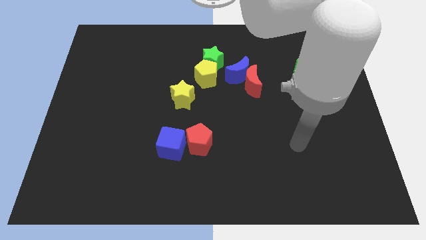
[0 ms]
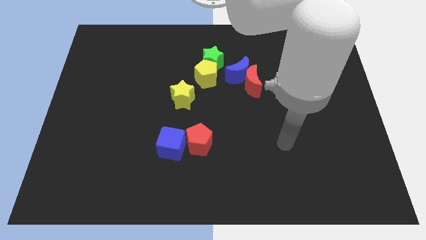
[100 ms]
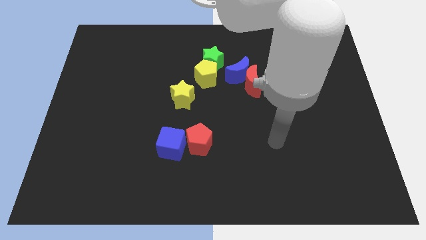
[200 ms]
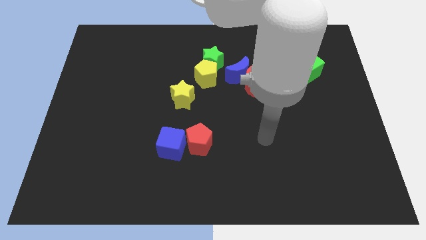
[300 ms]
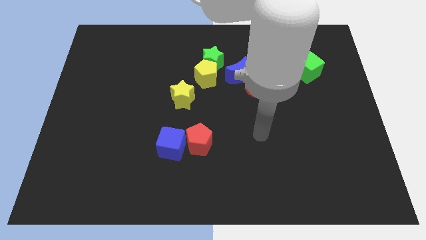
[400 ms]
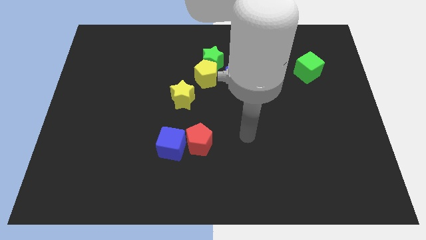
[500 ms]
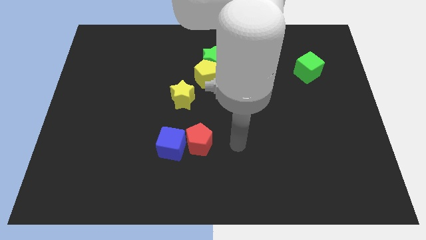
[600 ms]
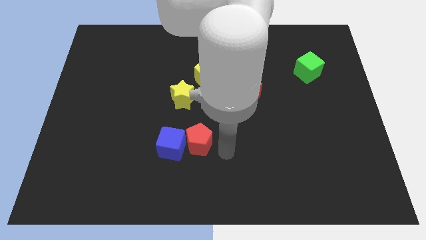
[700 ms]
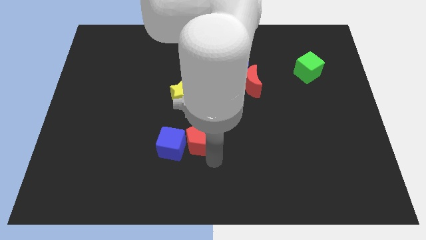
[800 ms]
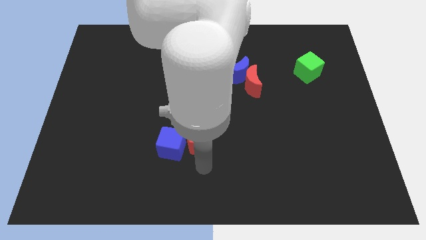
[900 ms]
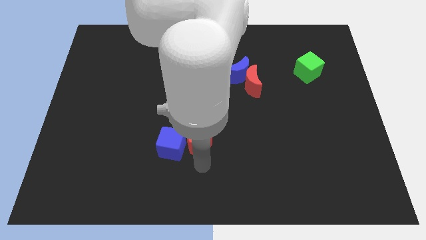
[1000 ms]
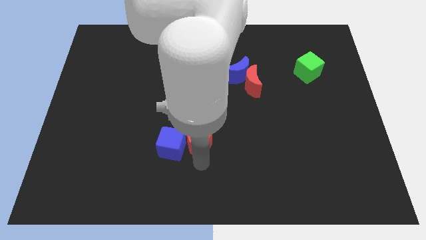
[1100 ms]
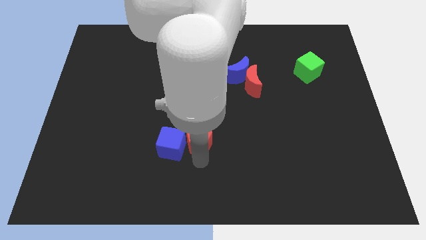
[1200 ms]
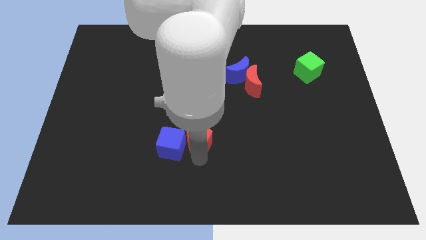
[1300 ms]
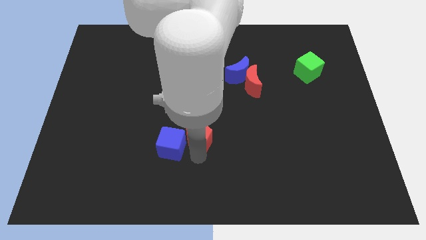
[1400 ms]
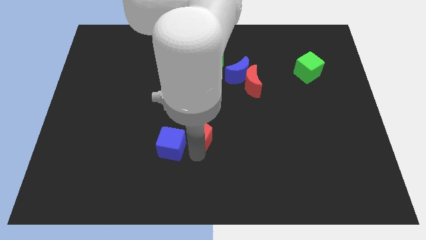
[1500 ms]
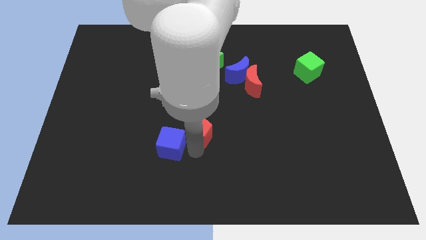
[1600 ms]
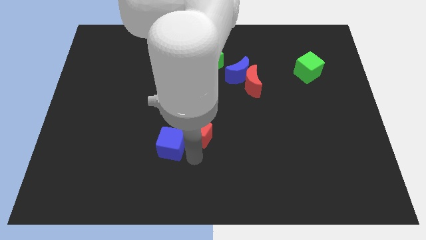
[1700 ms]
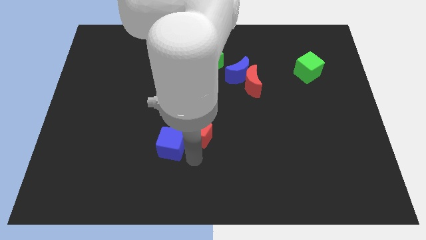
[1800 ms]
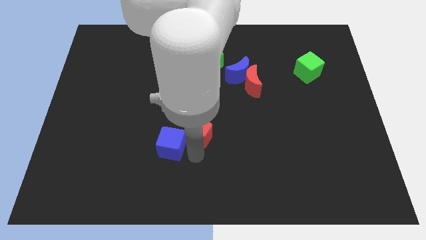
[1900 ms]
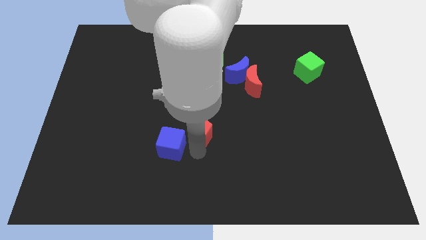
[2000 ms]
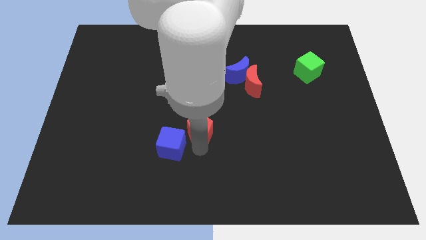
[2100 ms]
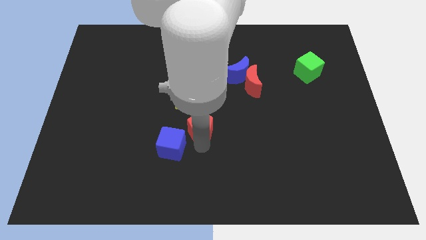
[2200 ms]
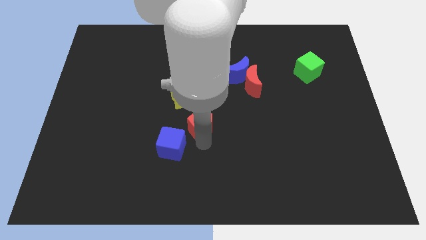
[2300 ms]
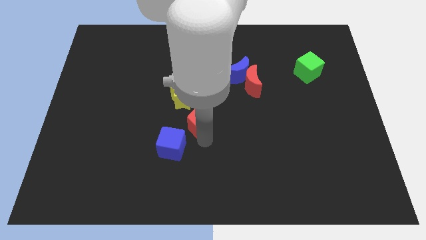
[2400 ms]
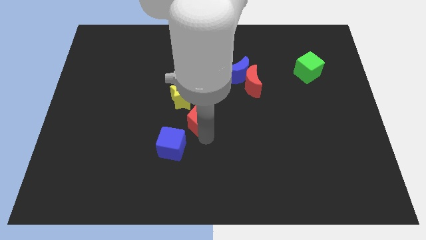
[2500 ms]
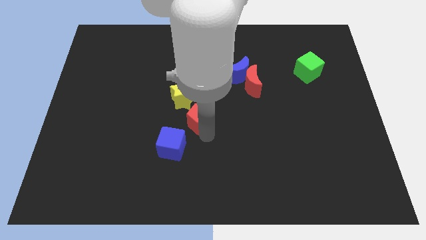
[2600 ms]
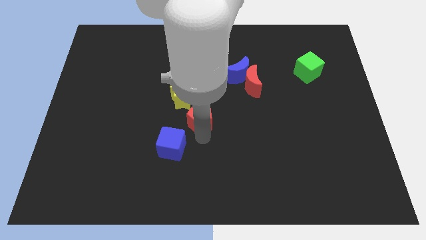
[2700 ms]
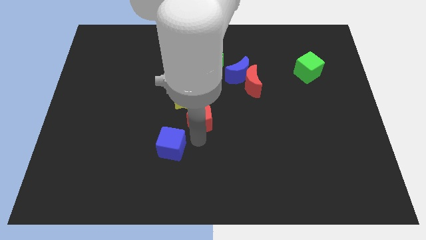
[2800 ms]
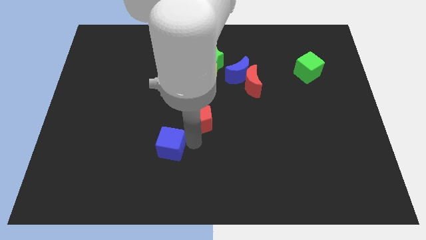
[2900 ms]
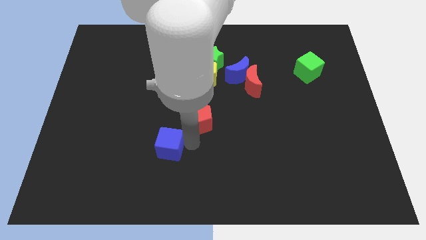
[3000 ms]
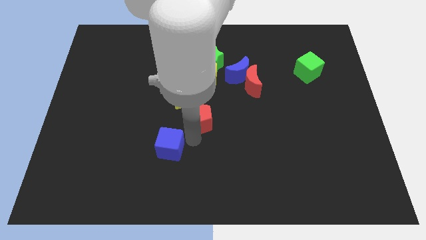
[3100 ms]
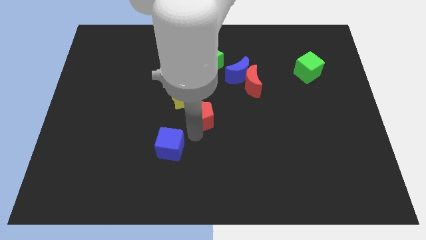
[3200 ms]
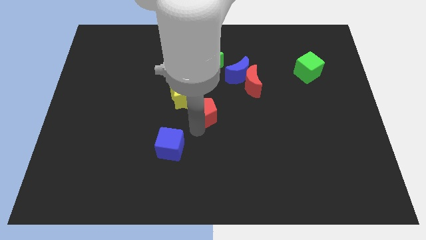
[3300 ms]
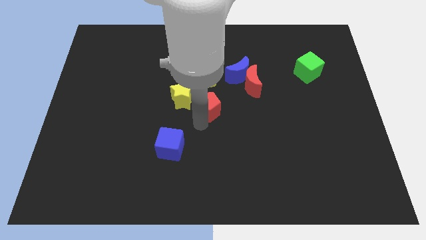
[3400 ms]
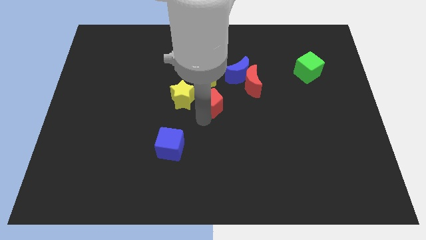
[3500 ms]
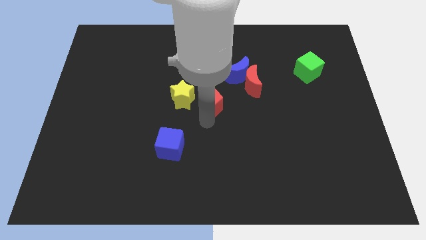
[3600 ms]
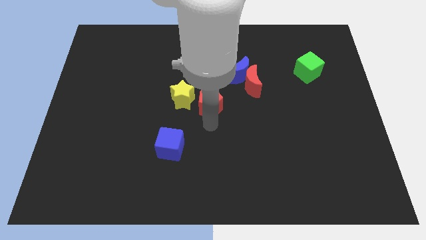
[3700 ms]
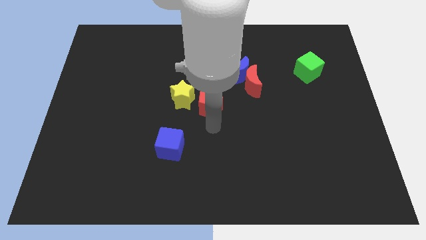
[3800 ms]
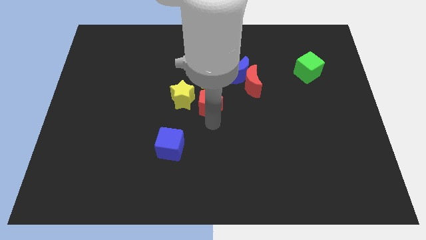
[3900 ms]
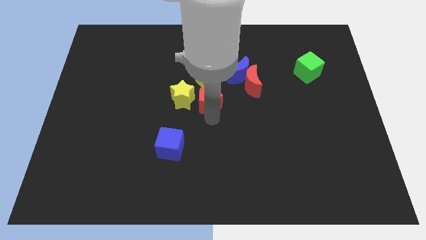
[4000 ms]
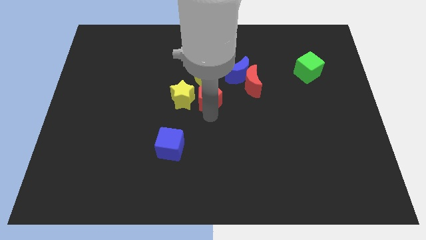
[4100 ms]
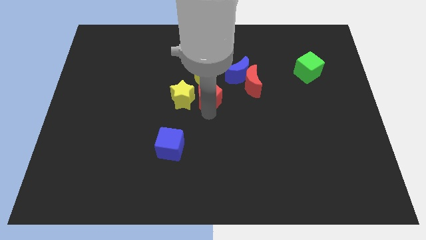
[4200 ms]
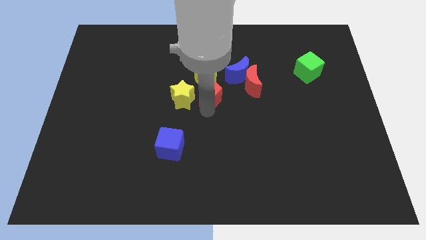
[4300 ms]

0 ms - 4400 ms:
move the red pentagon to the yellow pentagon

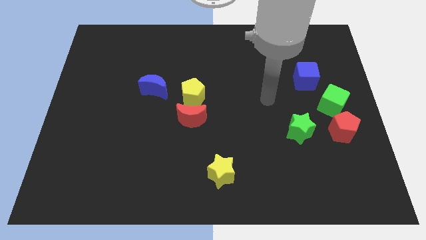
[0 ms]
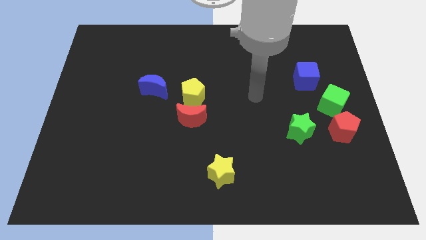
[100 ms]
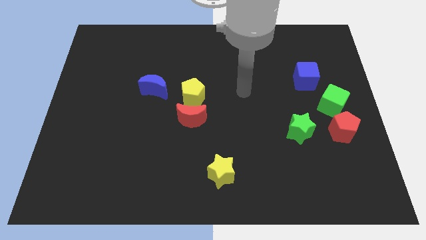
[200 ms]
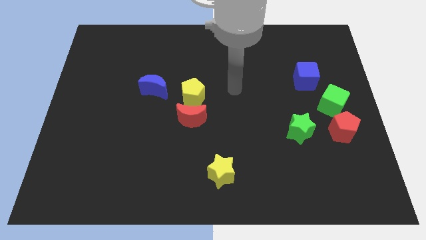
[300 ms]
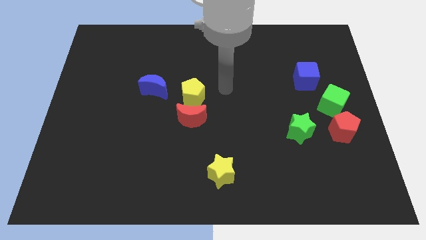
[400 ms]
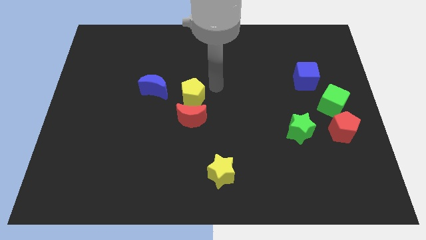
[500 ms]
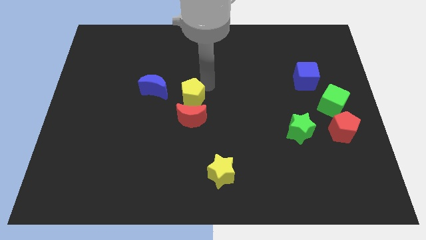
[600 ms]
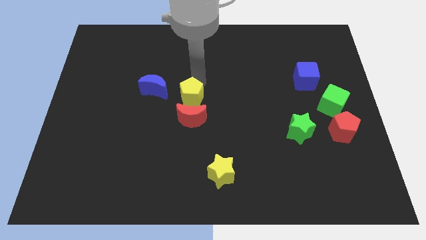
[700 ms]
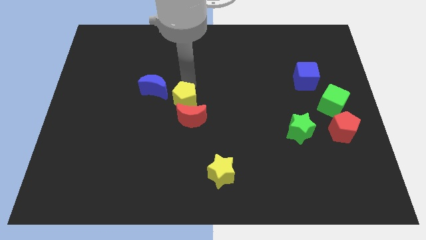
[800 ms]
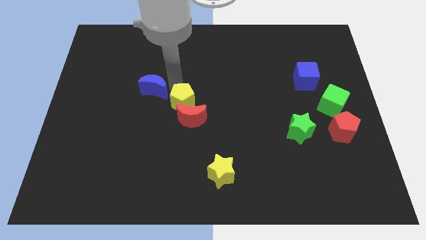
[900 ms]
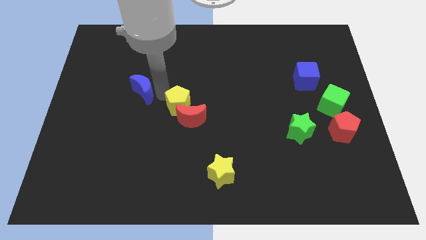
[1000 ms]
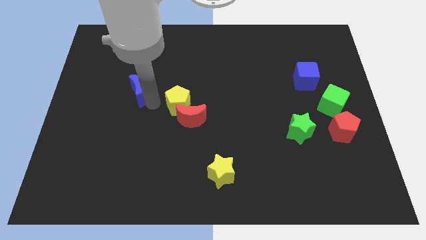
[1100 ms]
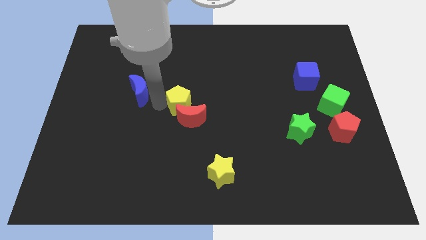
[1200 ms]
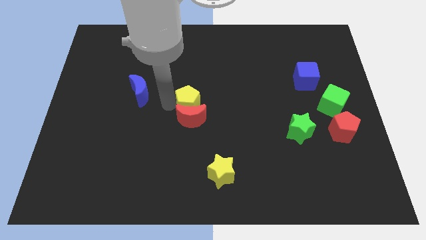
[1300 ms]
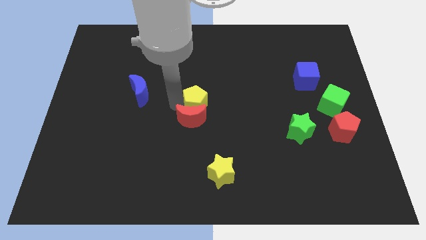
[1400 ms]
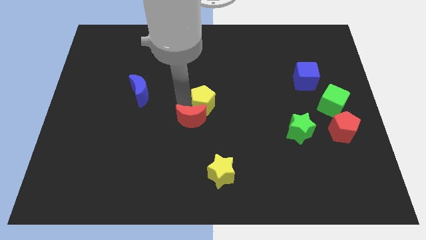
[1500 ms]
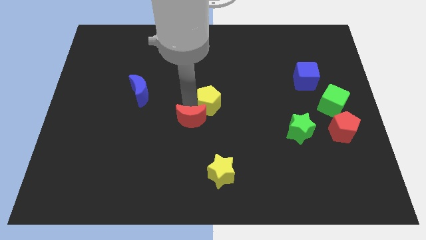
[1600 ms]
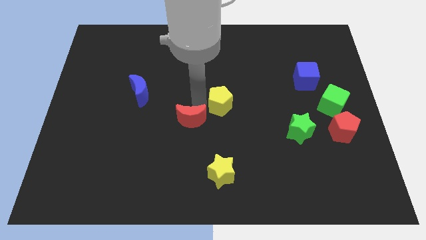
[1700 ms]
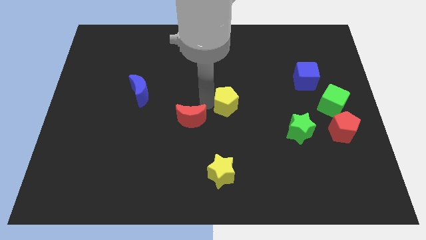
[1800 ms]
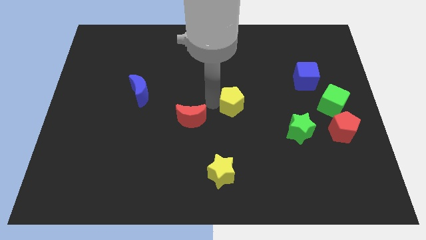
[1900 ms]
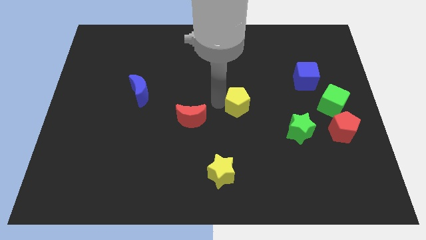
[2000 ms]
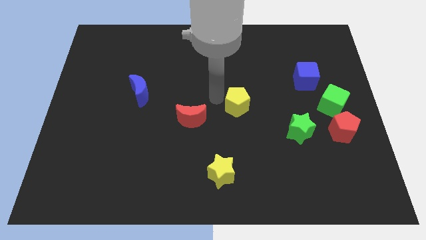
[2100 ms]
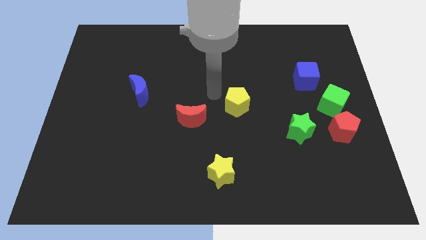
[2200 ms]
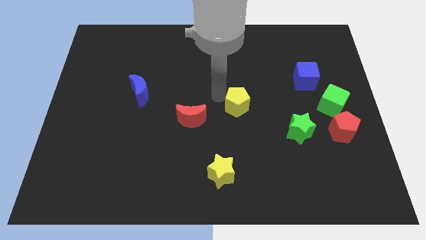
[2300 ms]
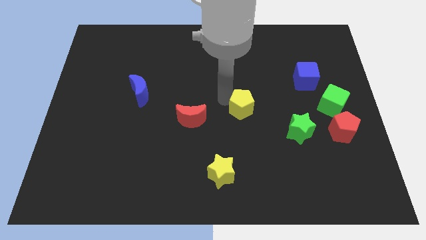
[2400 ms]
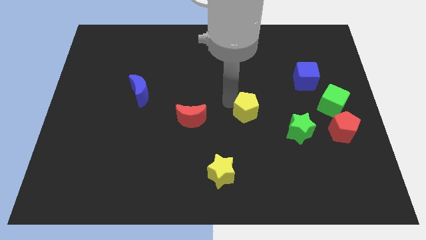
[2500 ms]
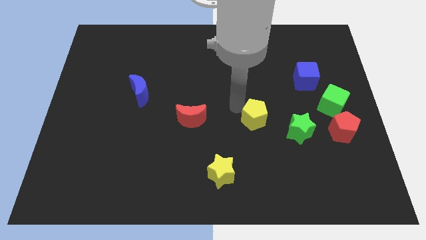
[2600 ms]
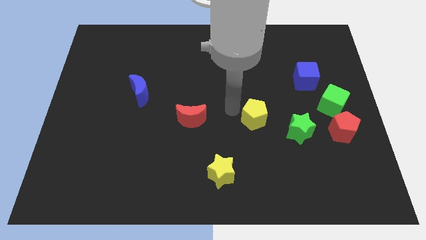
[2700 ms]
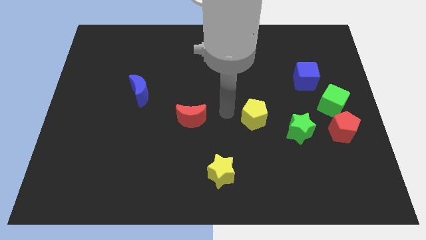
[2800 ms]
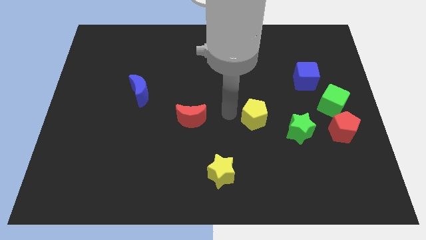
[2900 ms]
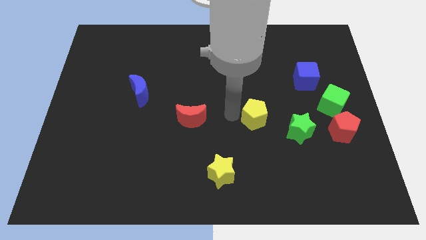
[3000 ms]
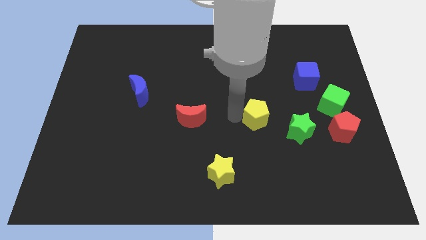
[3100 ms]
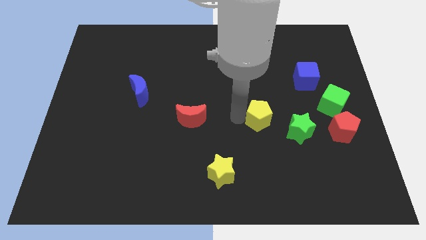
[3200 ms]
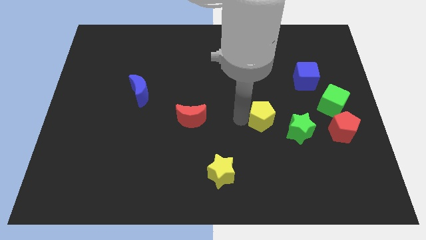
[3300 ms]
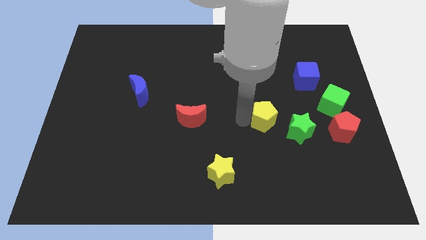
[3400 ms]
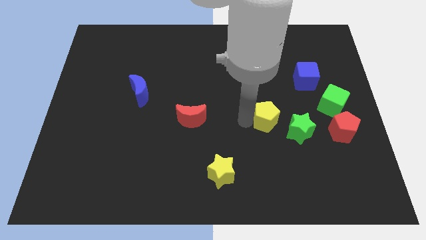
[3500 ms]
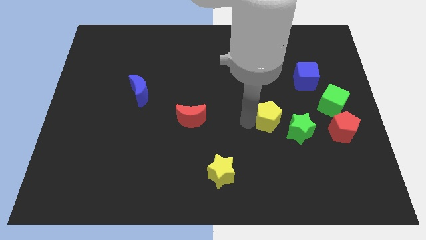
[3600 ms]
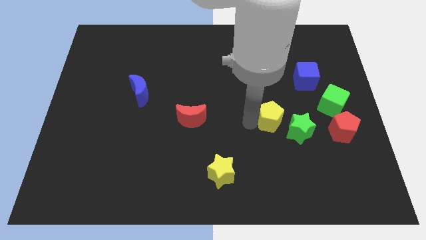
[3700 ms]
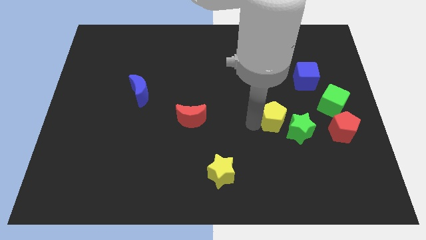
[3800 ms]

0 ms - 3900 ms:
push the yellow pentagon close to the green star
